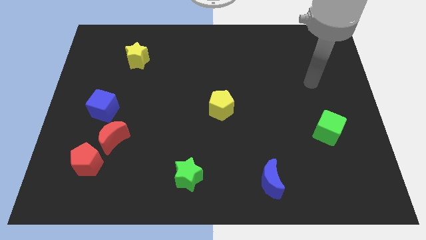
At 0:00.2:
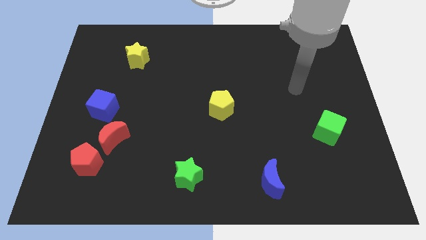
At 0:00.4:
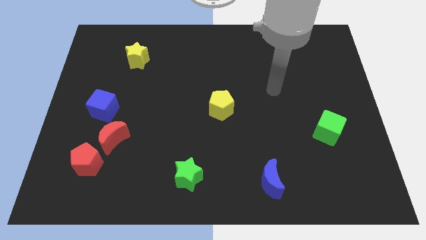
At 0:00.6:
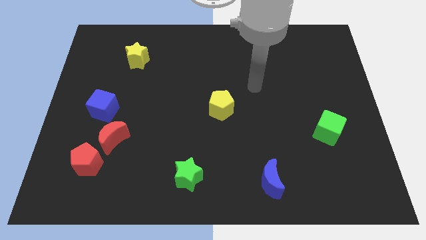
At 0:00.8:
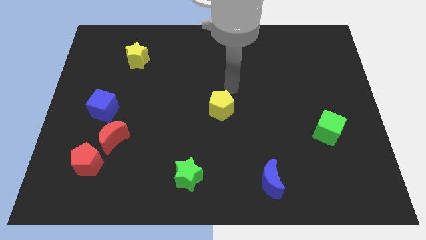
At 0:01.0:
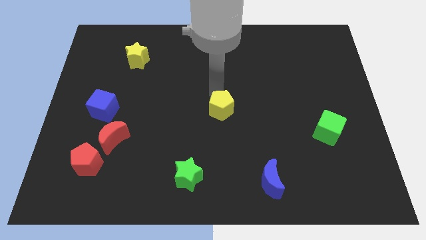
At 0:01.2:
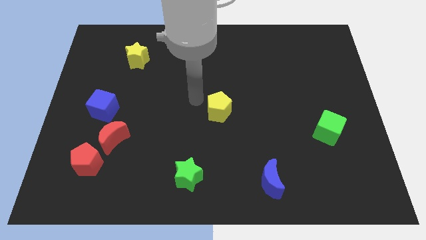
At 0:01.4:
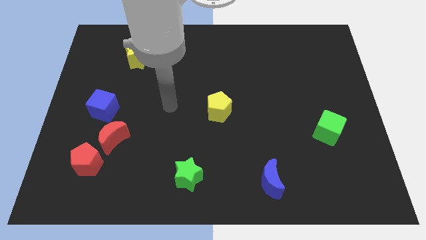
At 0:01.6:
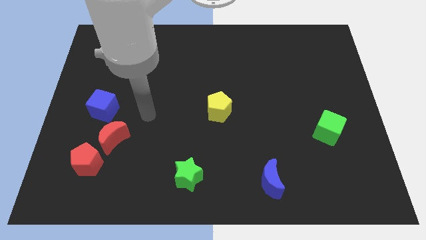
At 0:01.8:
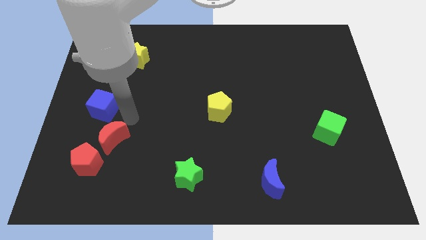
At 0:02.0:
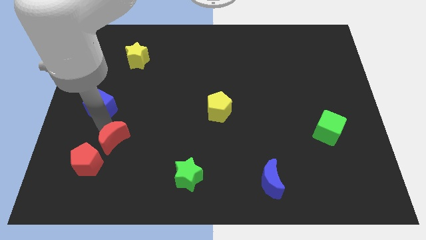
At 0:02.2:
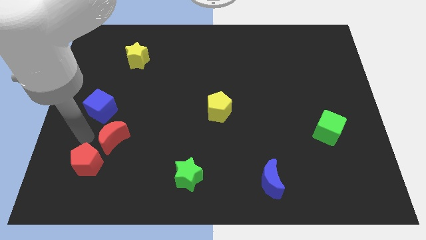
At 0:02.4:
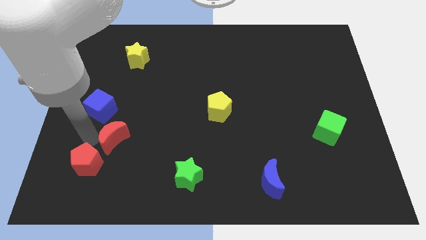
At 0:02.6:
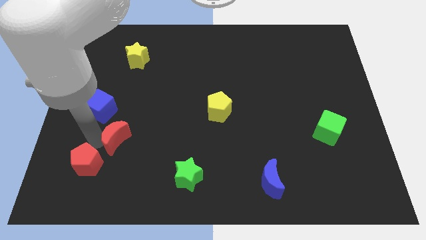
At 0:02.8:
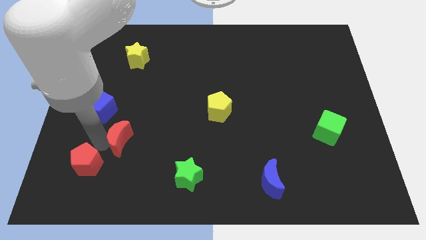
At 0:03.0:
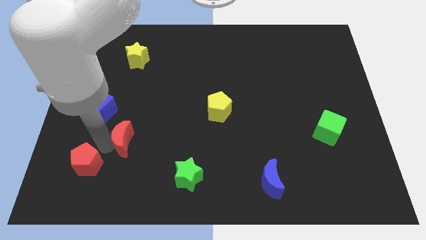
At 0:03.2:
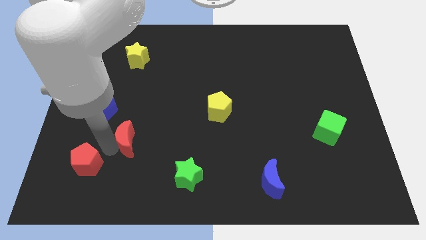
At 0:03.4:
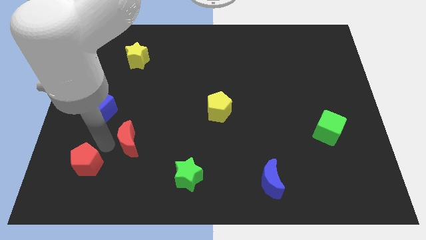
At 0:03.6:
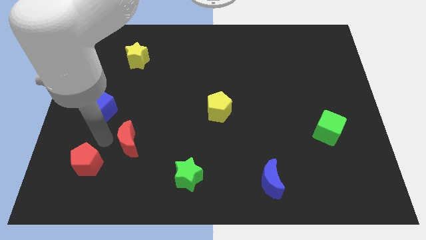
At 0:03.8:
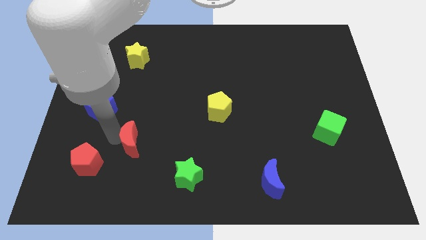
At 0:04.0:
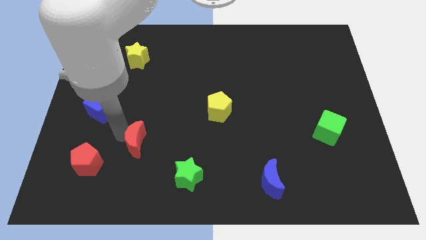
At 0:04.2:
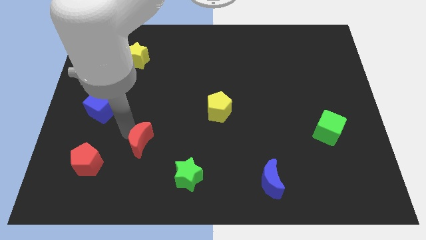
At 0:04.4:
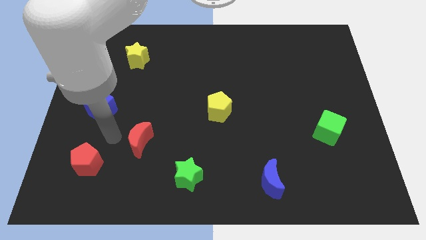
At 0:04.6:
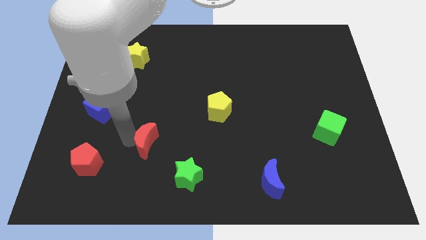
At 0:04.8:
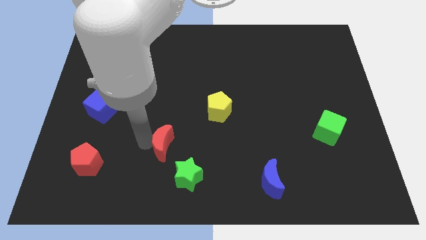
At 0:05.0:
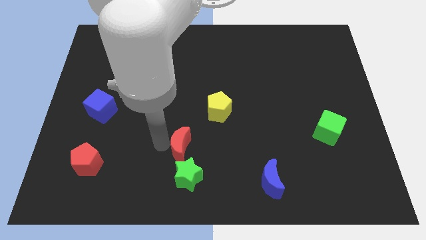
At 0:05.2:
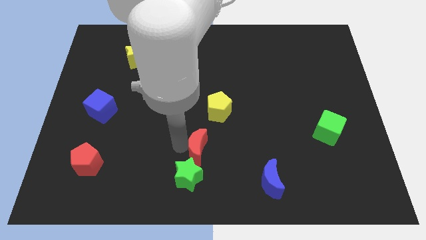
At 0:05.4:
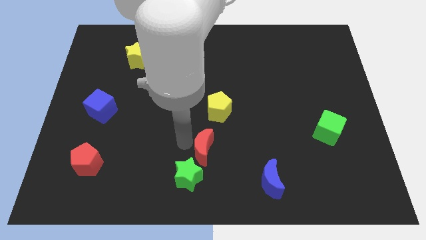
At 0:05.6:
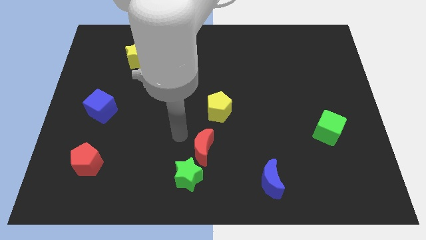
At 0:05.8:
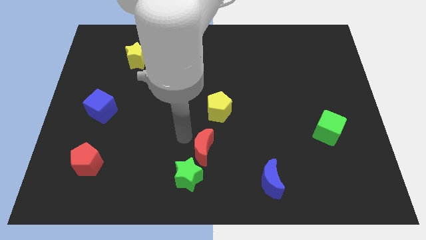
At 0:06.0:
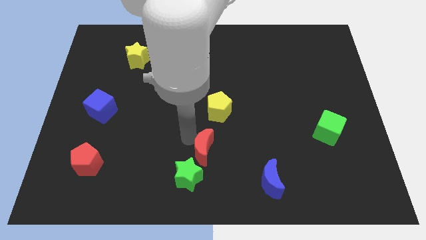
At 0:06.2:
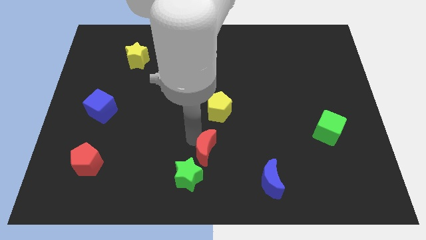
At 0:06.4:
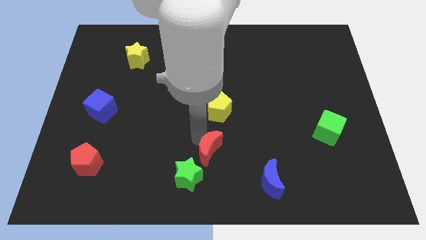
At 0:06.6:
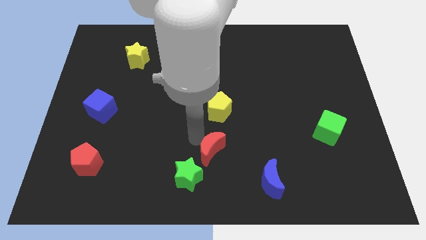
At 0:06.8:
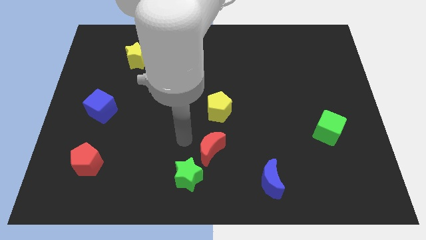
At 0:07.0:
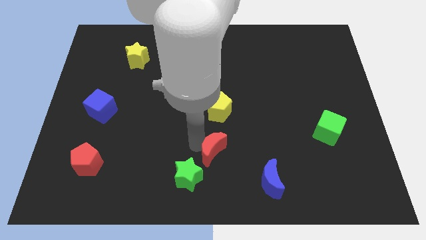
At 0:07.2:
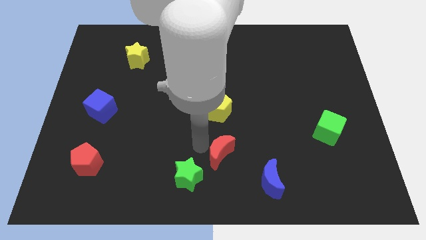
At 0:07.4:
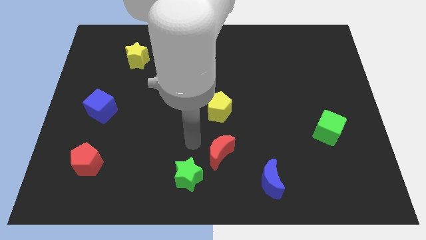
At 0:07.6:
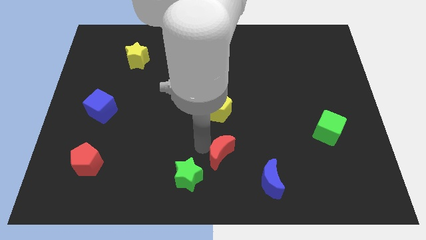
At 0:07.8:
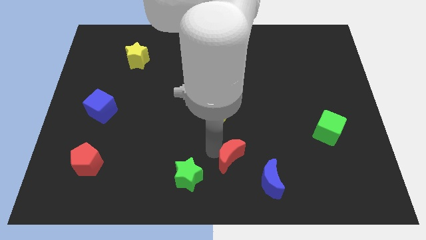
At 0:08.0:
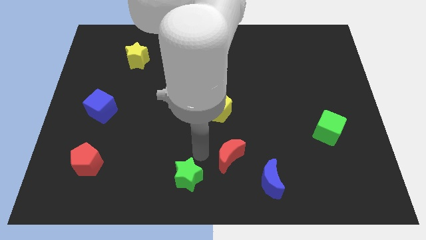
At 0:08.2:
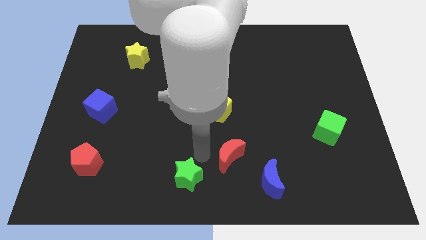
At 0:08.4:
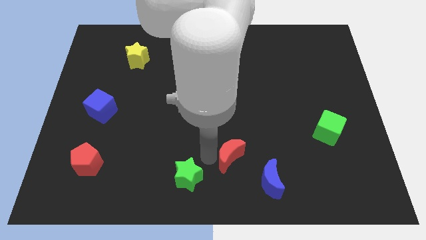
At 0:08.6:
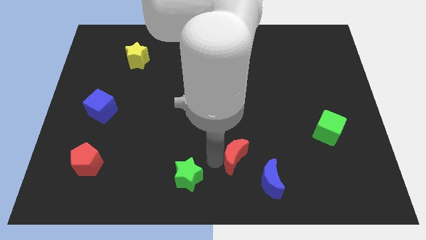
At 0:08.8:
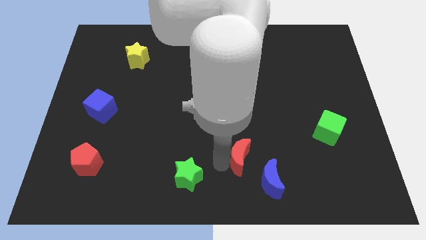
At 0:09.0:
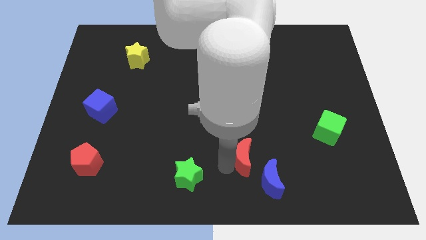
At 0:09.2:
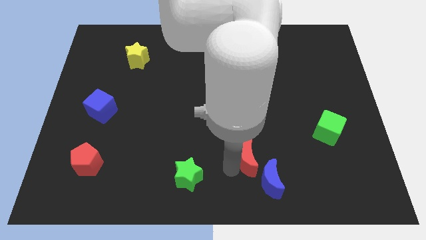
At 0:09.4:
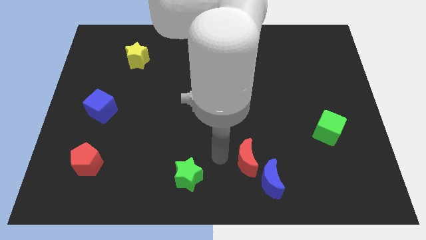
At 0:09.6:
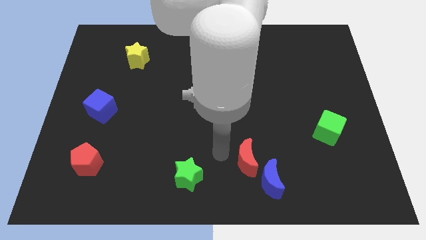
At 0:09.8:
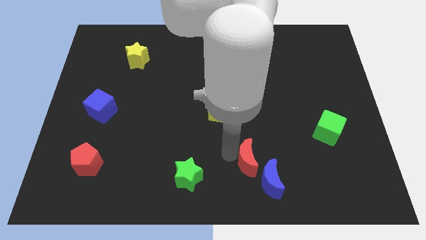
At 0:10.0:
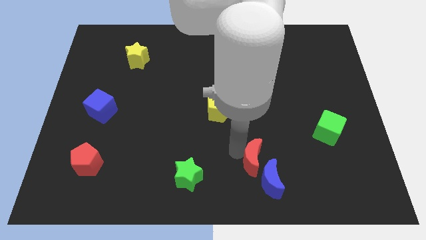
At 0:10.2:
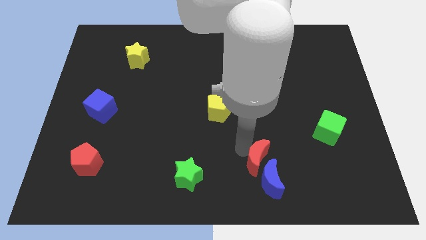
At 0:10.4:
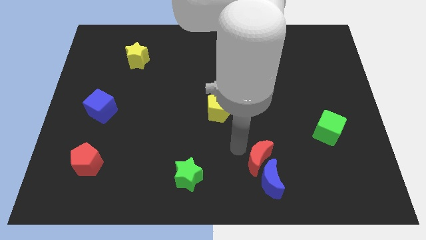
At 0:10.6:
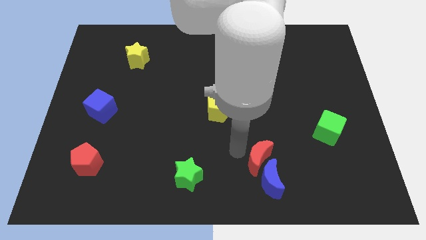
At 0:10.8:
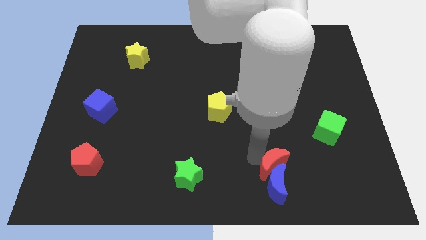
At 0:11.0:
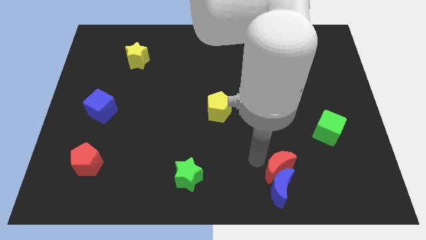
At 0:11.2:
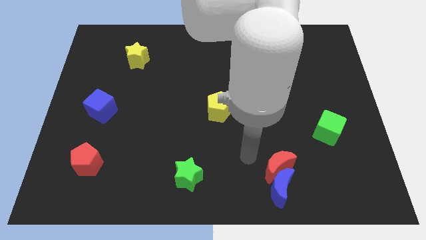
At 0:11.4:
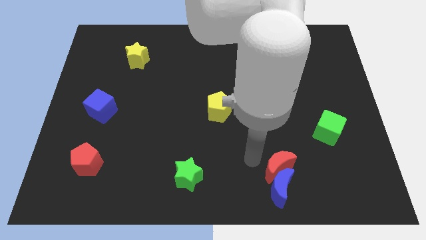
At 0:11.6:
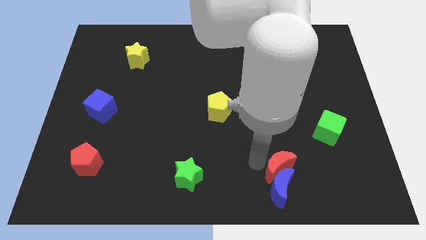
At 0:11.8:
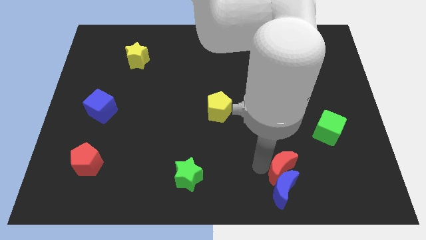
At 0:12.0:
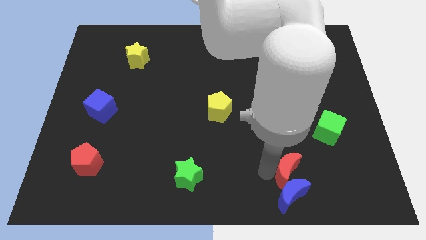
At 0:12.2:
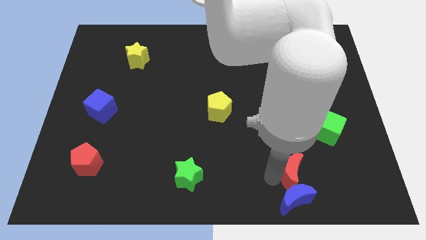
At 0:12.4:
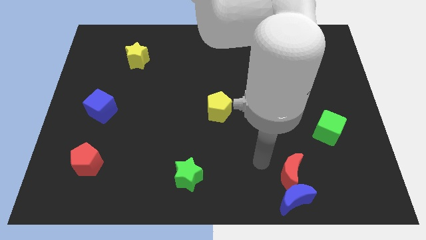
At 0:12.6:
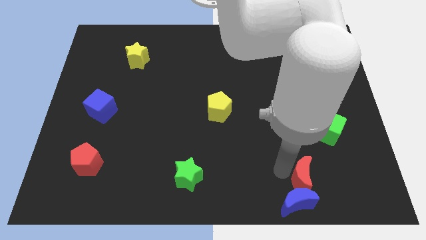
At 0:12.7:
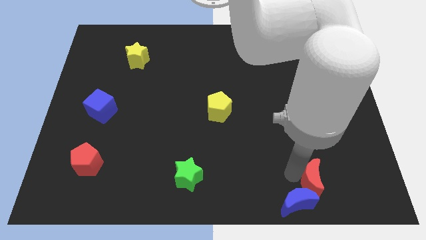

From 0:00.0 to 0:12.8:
push the red moon right of the blue moon

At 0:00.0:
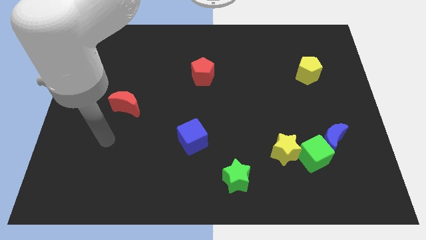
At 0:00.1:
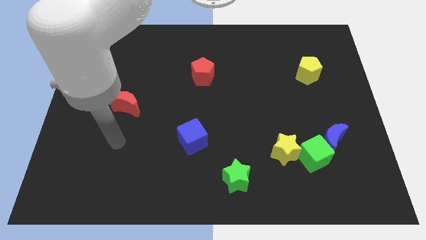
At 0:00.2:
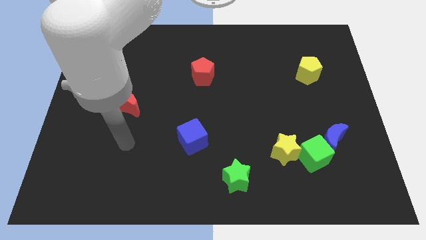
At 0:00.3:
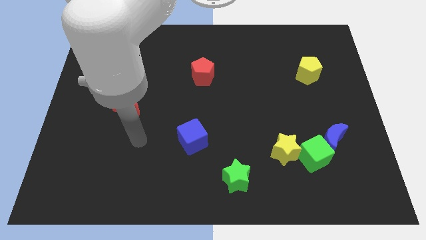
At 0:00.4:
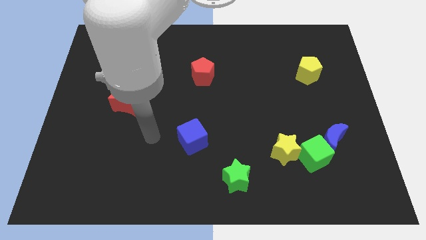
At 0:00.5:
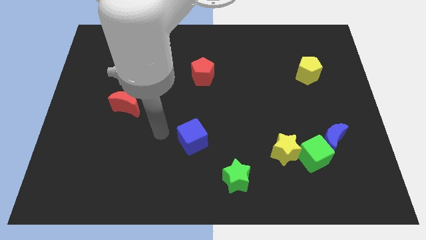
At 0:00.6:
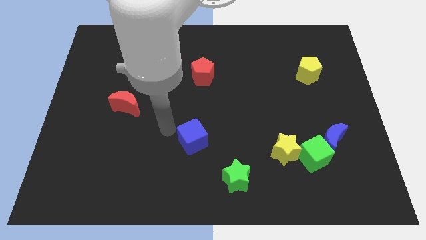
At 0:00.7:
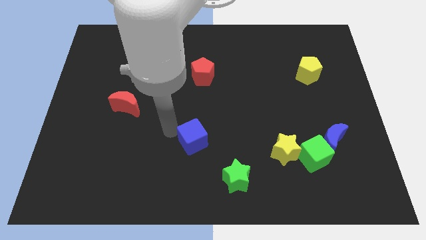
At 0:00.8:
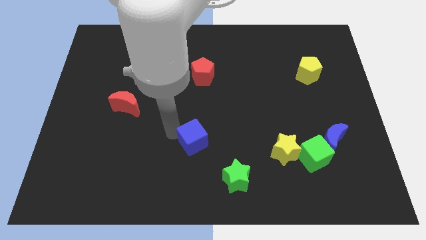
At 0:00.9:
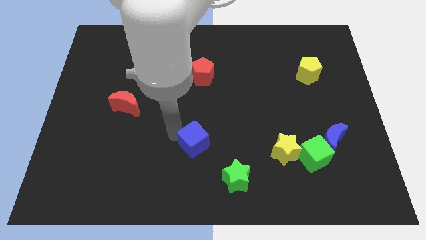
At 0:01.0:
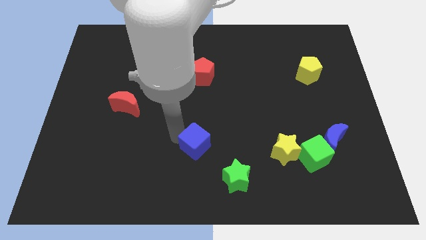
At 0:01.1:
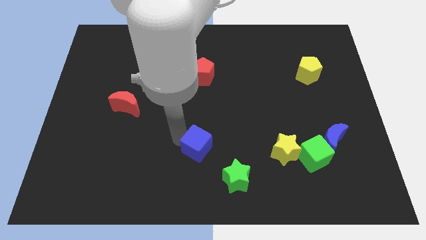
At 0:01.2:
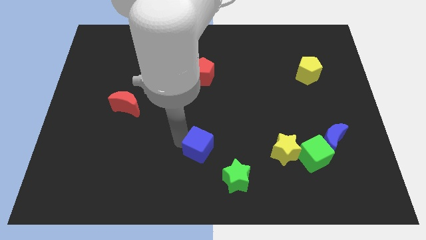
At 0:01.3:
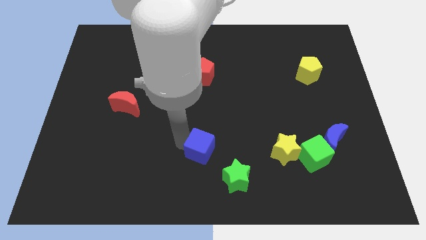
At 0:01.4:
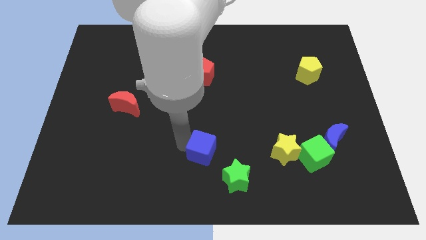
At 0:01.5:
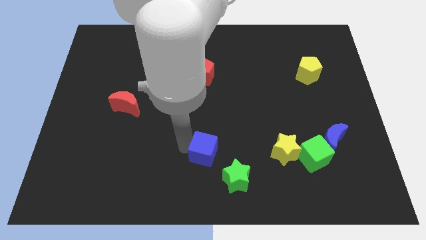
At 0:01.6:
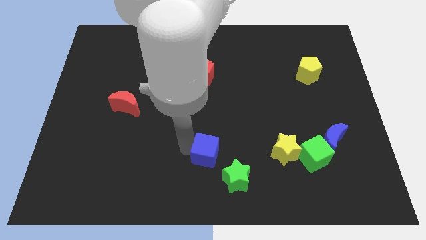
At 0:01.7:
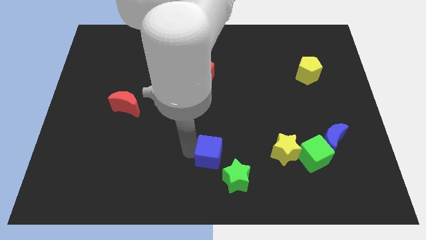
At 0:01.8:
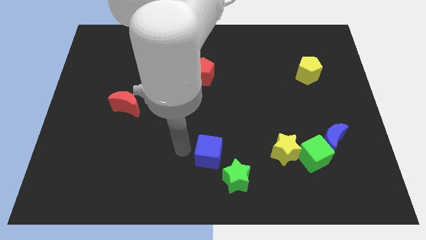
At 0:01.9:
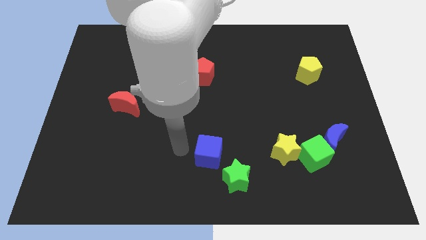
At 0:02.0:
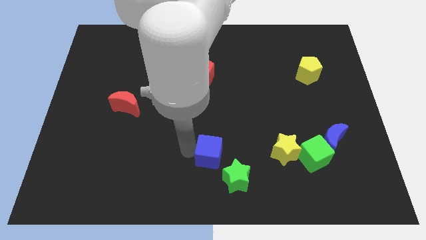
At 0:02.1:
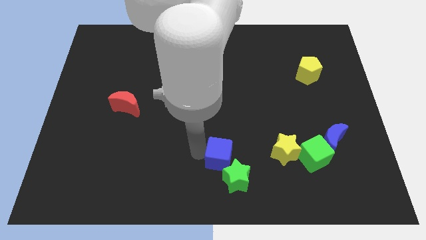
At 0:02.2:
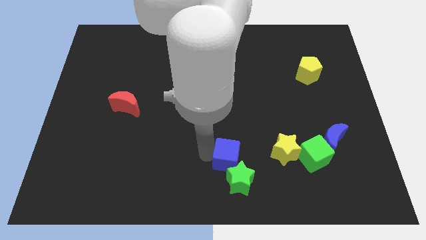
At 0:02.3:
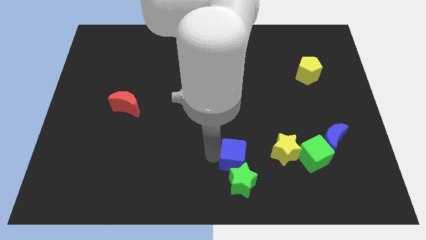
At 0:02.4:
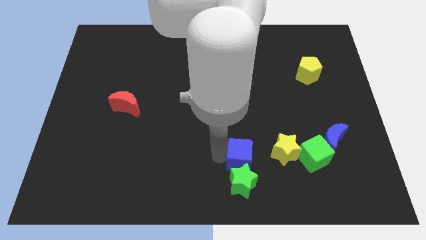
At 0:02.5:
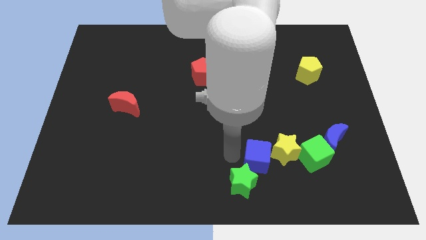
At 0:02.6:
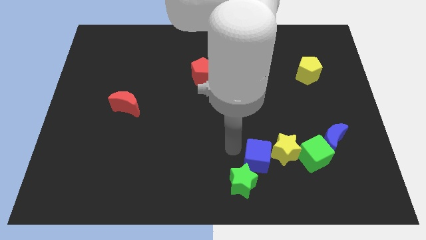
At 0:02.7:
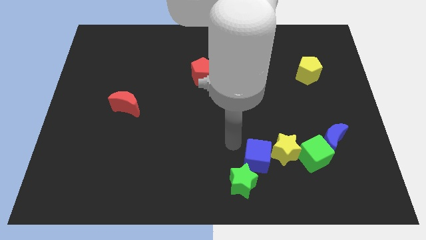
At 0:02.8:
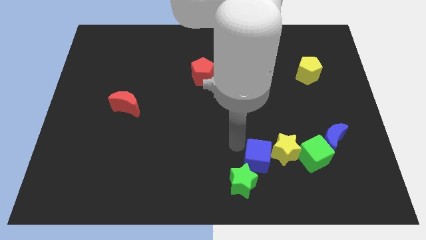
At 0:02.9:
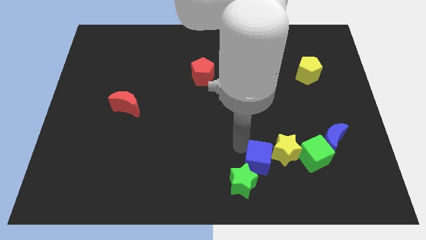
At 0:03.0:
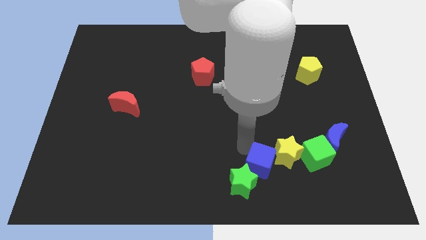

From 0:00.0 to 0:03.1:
slide the blue cube to the right of the green star
